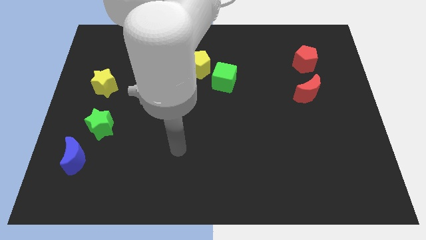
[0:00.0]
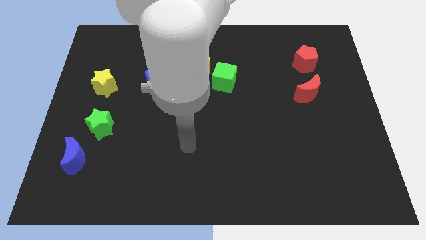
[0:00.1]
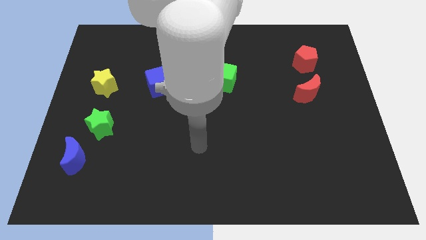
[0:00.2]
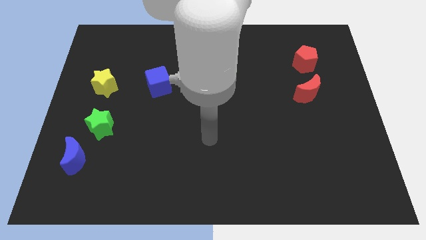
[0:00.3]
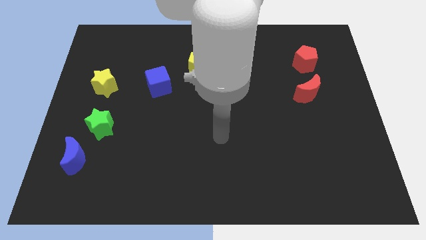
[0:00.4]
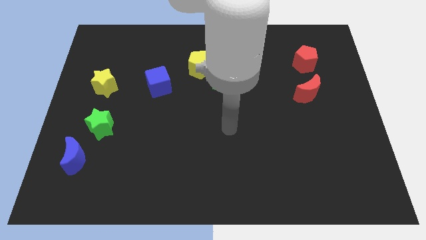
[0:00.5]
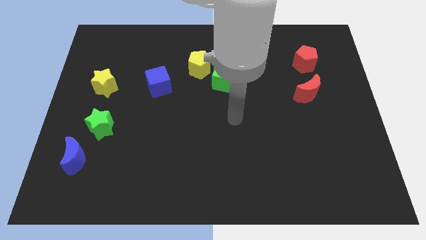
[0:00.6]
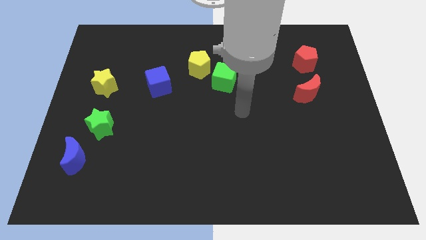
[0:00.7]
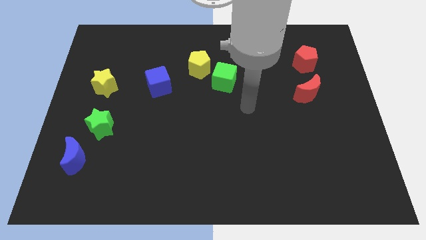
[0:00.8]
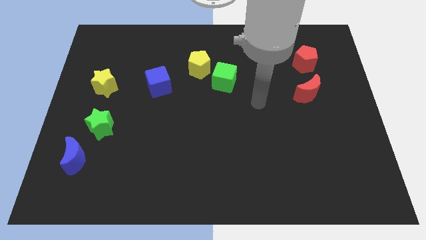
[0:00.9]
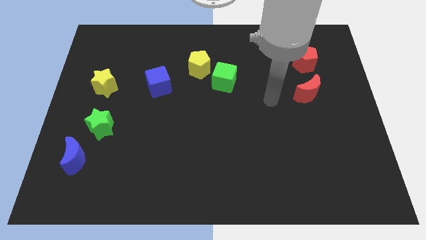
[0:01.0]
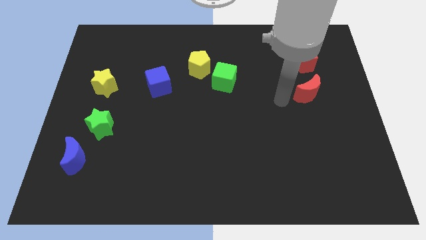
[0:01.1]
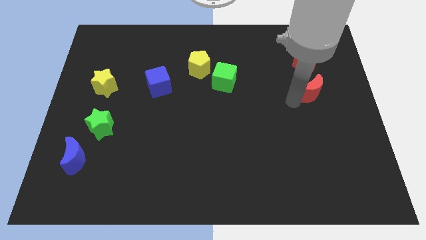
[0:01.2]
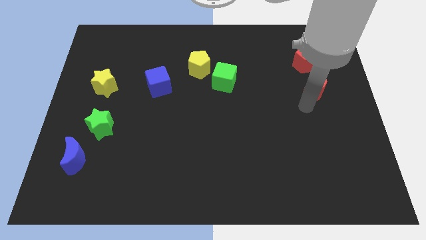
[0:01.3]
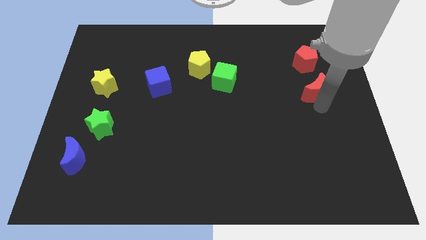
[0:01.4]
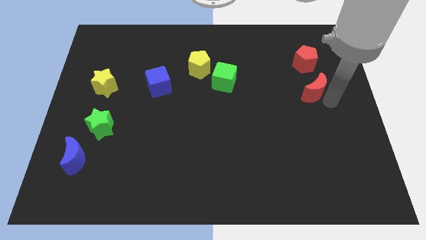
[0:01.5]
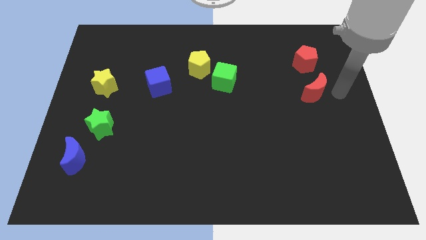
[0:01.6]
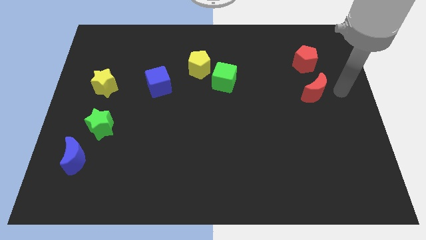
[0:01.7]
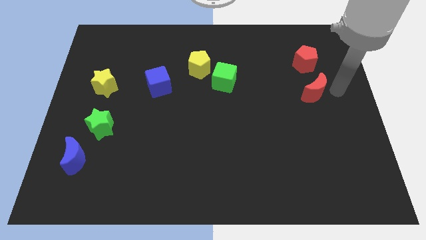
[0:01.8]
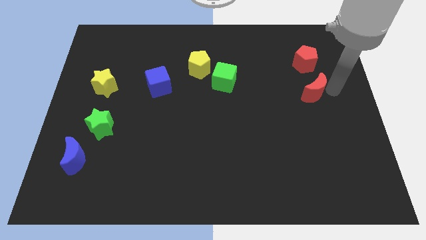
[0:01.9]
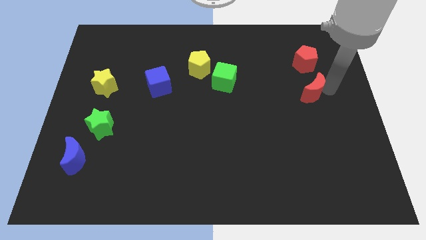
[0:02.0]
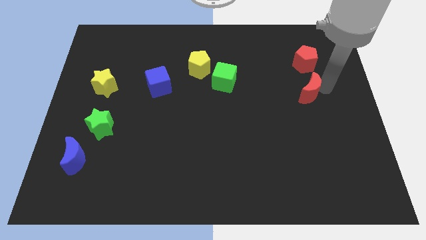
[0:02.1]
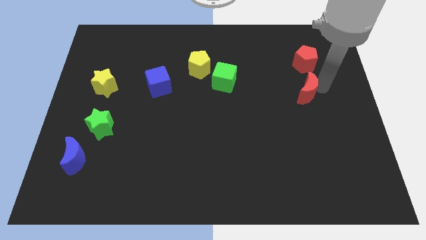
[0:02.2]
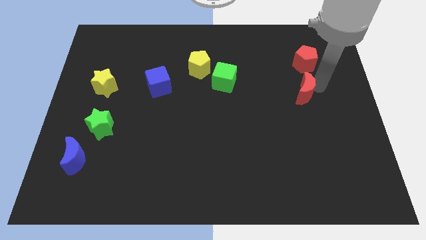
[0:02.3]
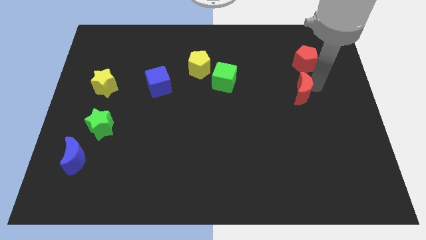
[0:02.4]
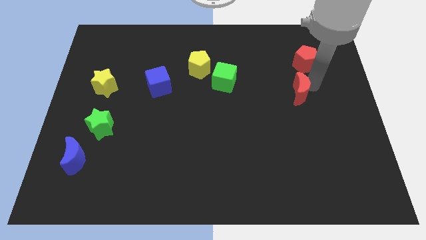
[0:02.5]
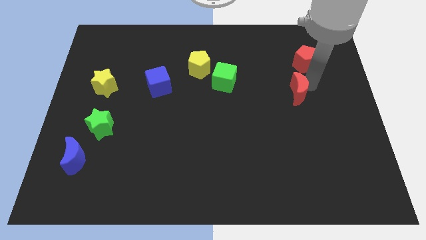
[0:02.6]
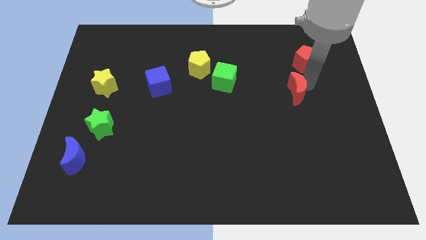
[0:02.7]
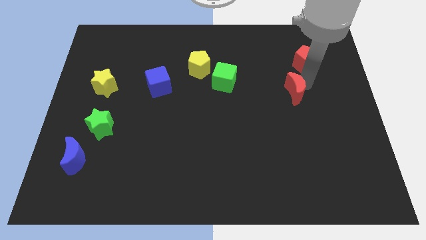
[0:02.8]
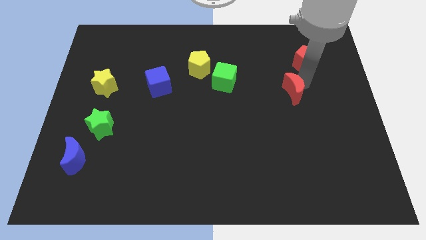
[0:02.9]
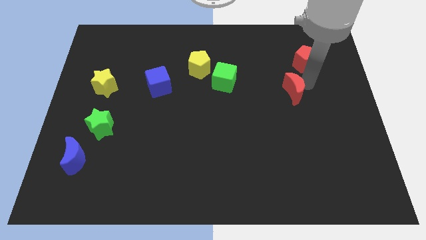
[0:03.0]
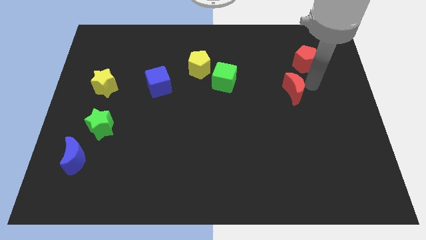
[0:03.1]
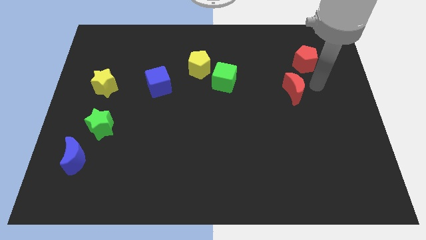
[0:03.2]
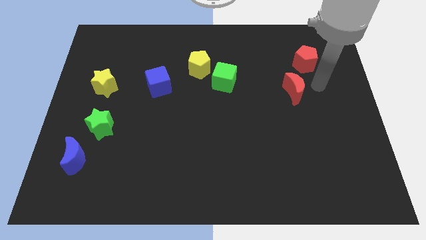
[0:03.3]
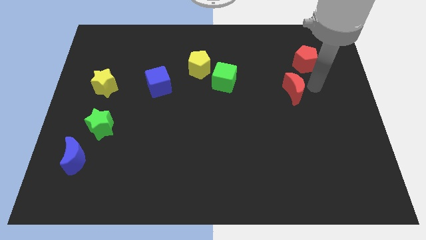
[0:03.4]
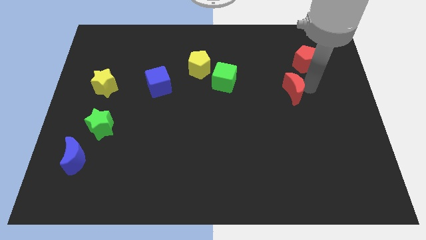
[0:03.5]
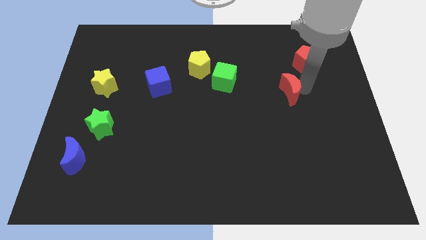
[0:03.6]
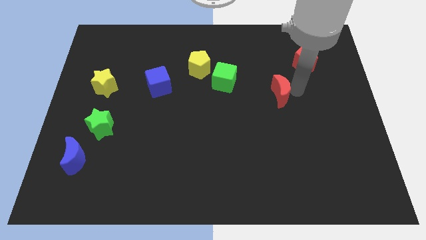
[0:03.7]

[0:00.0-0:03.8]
push the red moon to the left slightly

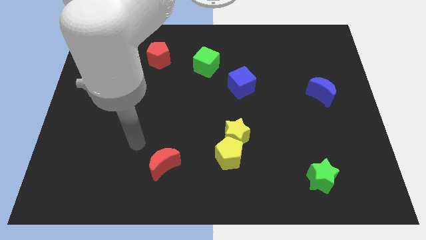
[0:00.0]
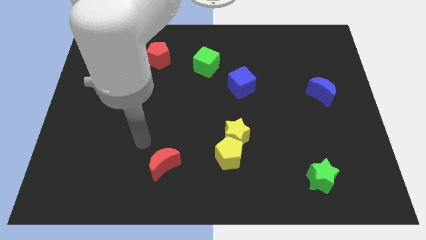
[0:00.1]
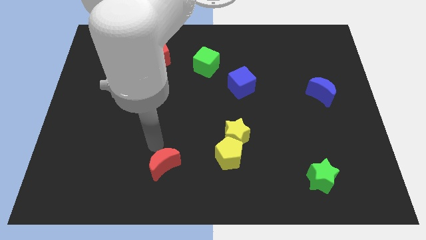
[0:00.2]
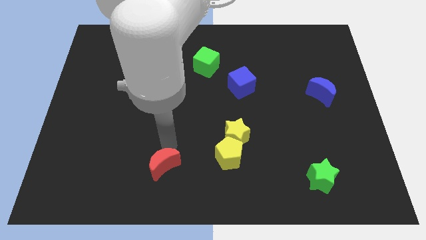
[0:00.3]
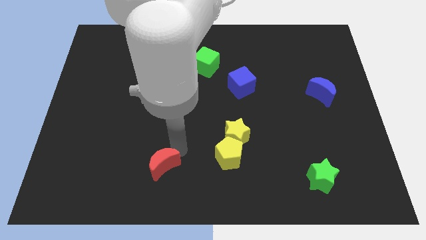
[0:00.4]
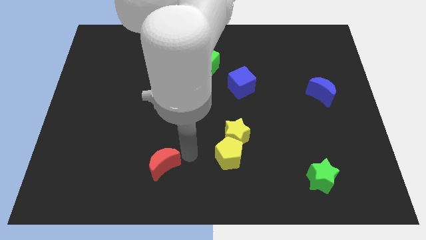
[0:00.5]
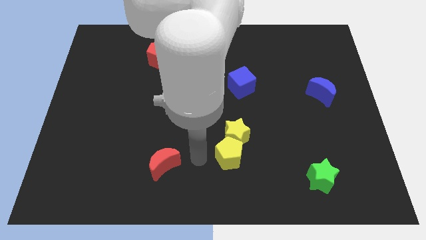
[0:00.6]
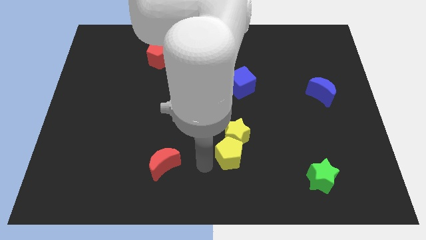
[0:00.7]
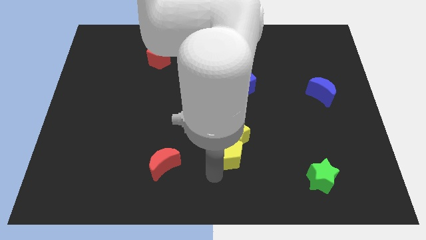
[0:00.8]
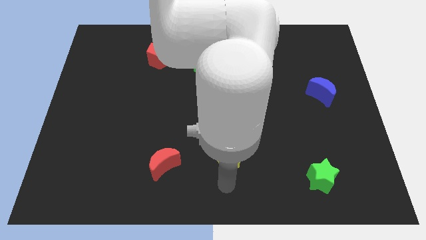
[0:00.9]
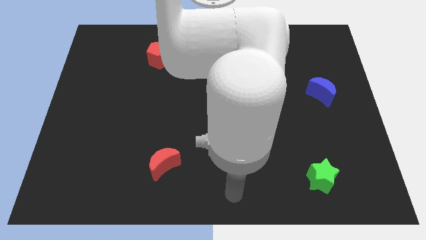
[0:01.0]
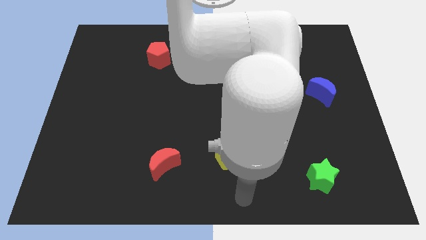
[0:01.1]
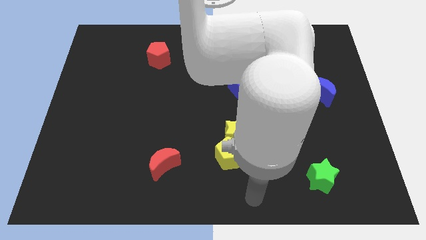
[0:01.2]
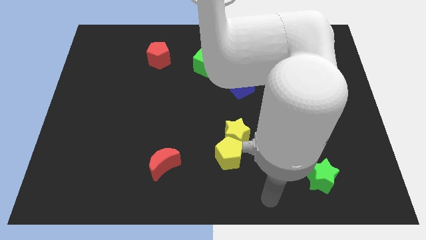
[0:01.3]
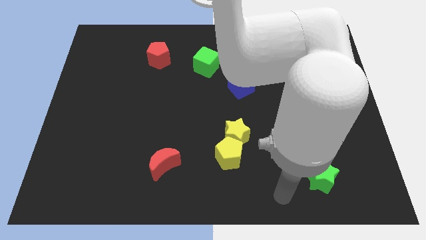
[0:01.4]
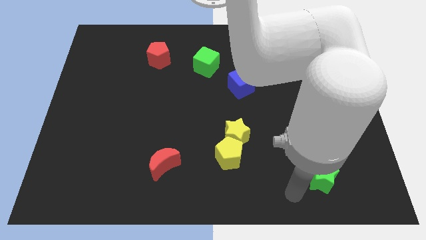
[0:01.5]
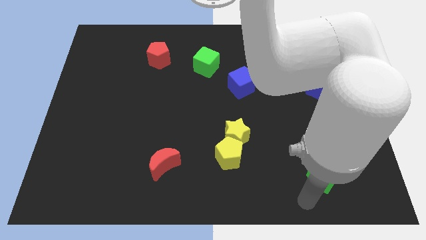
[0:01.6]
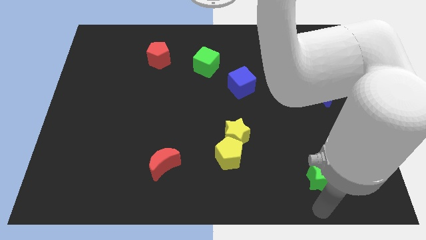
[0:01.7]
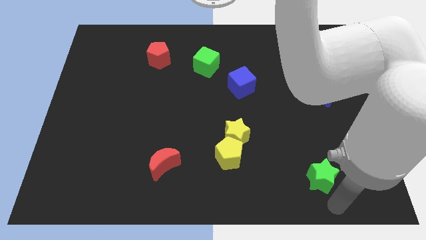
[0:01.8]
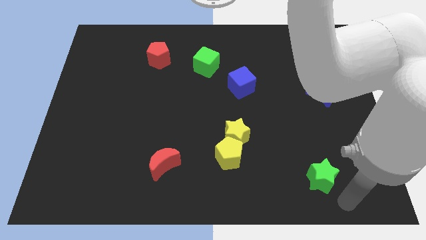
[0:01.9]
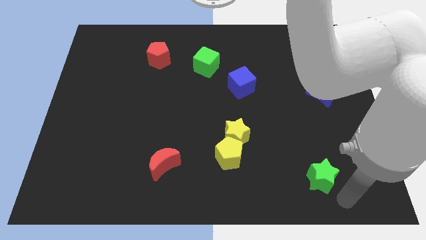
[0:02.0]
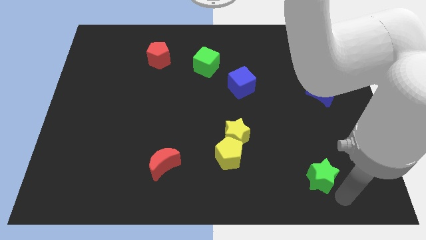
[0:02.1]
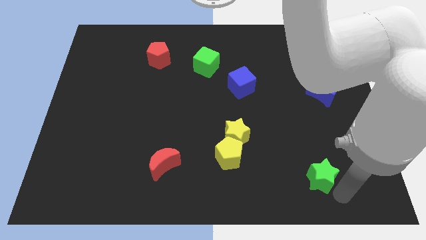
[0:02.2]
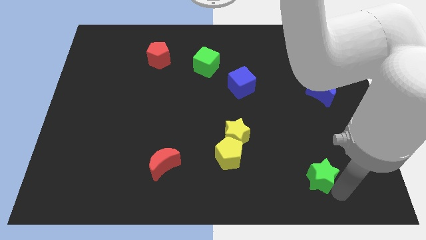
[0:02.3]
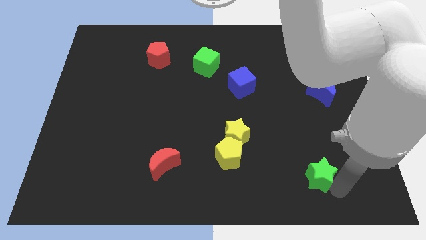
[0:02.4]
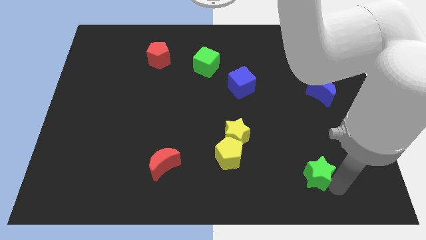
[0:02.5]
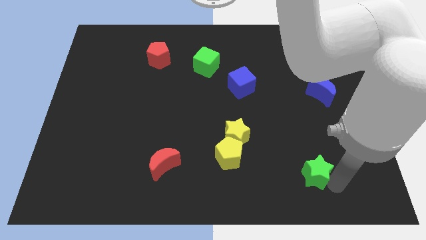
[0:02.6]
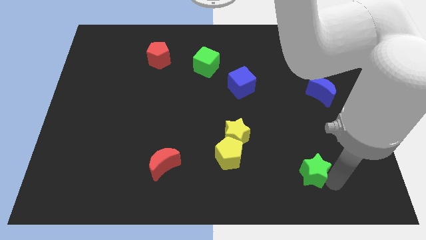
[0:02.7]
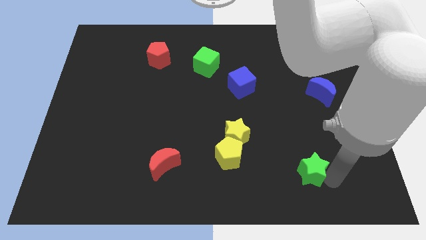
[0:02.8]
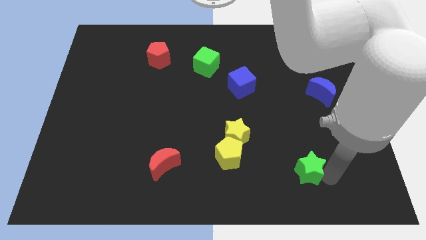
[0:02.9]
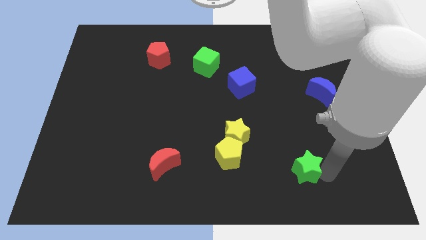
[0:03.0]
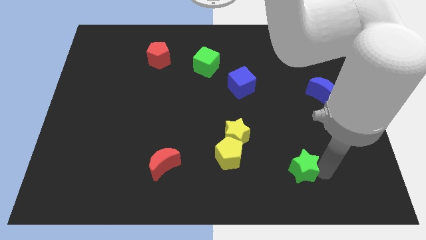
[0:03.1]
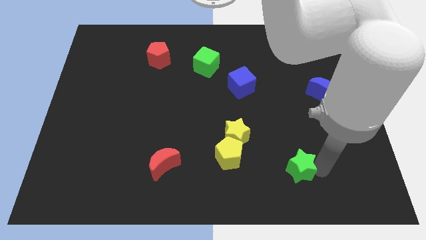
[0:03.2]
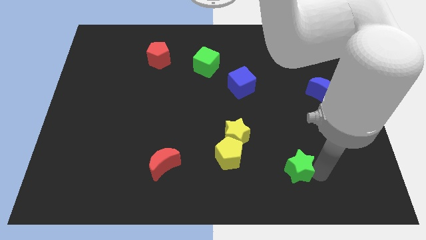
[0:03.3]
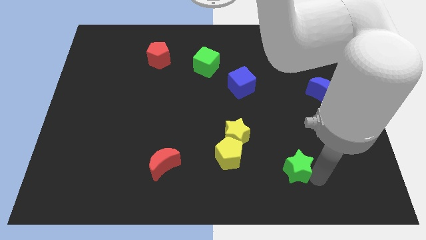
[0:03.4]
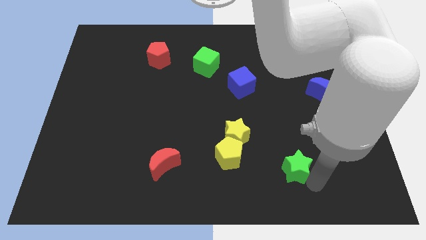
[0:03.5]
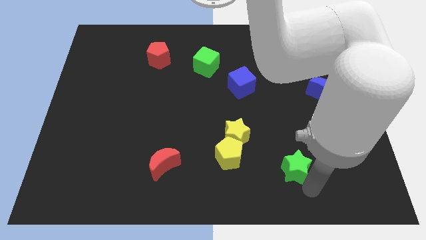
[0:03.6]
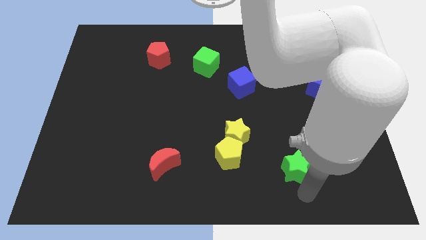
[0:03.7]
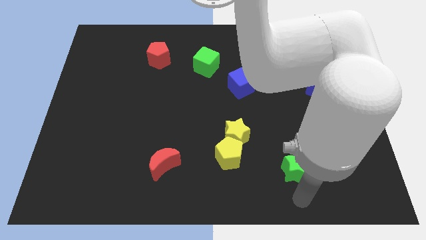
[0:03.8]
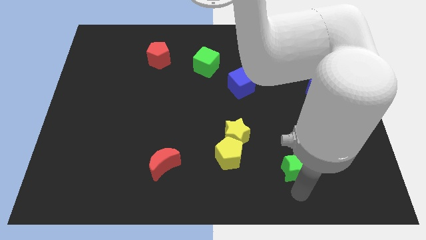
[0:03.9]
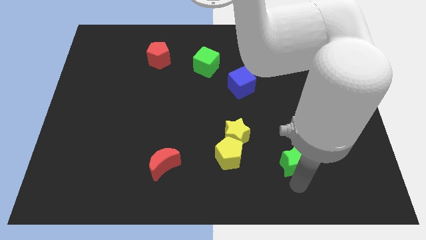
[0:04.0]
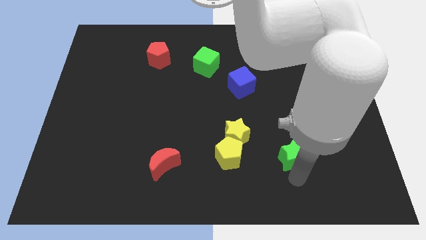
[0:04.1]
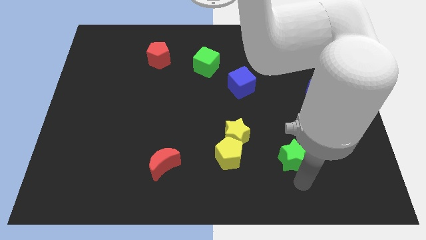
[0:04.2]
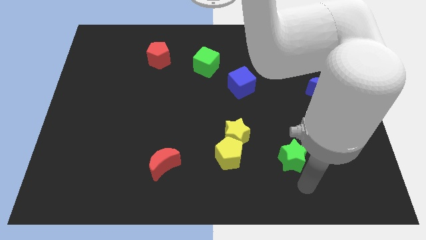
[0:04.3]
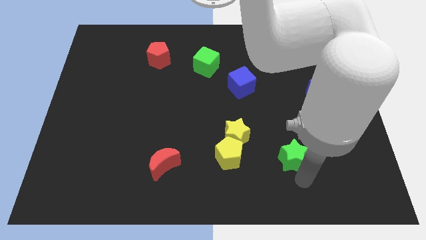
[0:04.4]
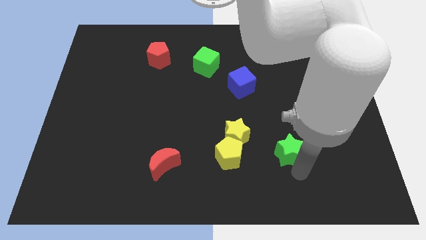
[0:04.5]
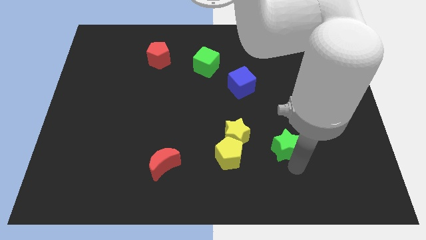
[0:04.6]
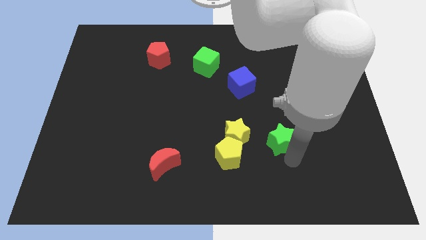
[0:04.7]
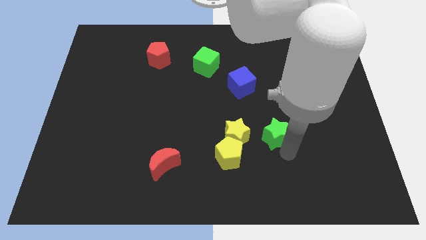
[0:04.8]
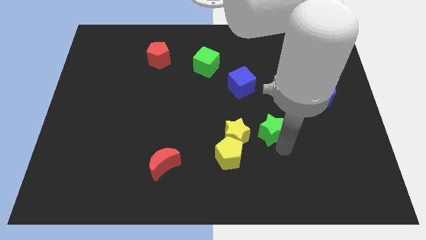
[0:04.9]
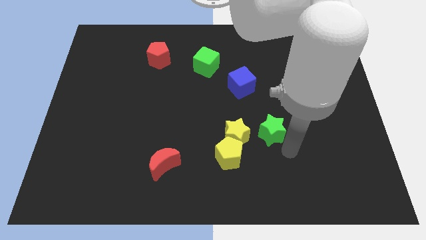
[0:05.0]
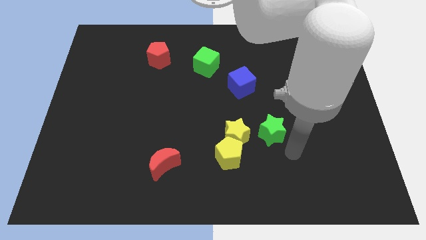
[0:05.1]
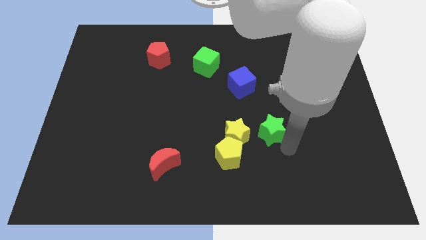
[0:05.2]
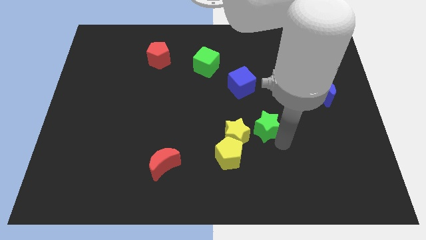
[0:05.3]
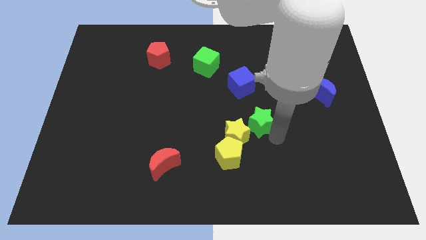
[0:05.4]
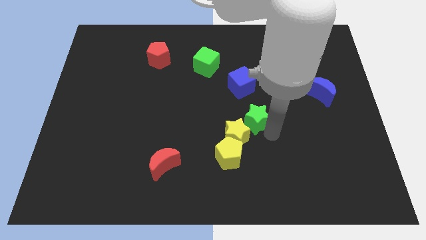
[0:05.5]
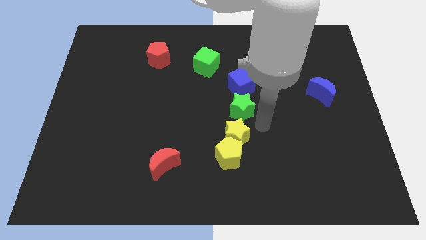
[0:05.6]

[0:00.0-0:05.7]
push the green star diagonally up and left
